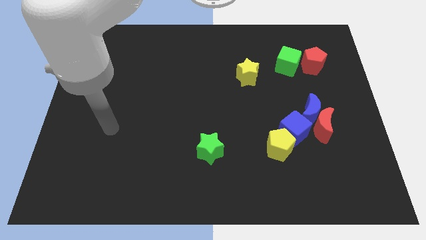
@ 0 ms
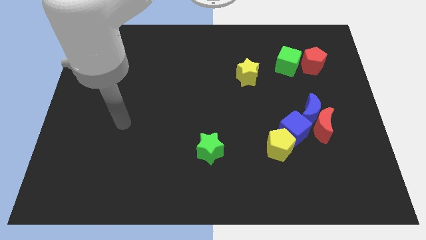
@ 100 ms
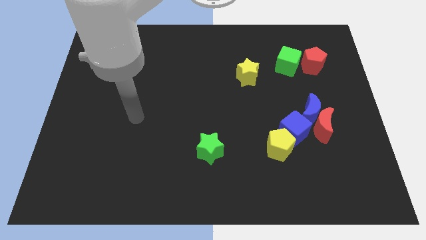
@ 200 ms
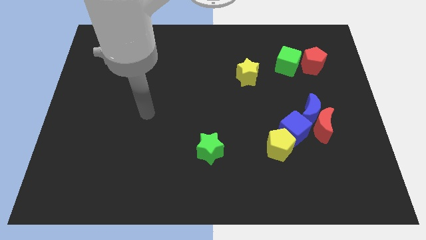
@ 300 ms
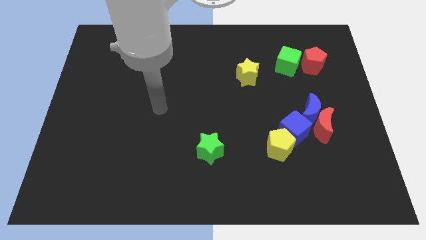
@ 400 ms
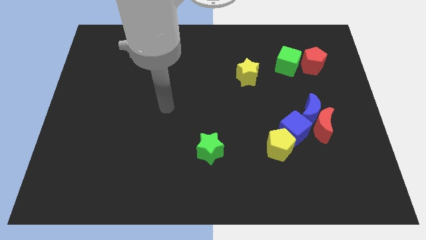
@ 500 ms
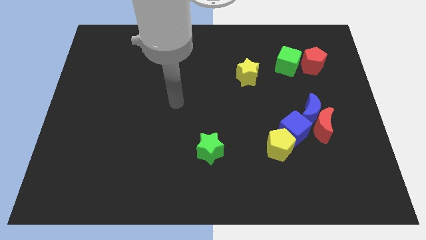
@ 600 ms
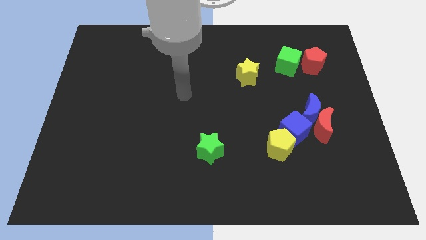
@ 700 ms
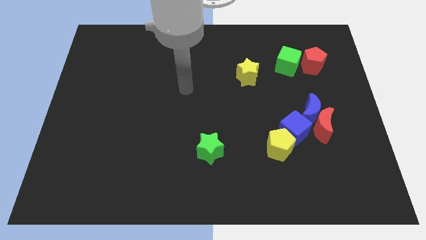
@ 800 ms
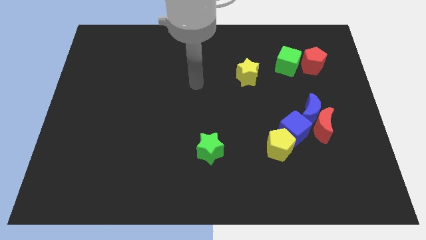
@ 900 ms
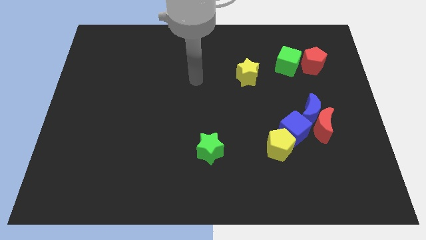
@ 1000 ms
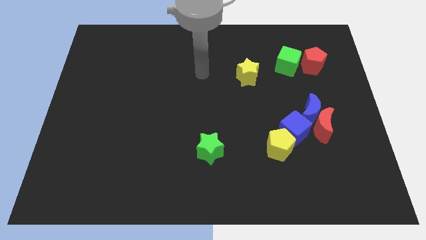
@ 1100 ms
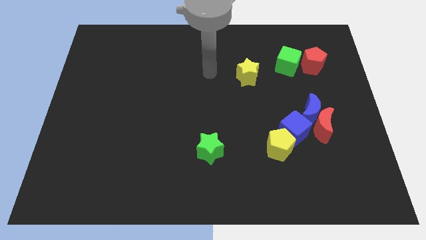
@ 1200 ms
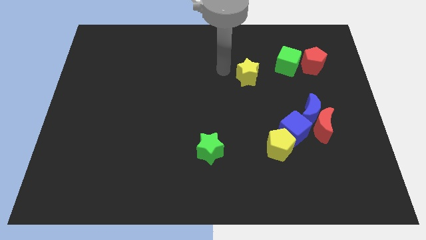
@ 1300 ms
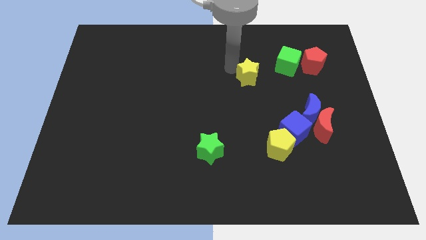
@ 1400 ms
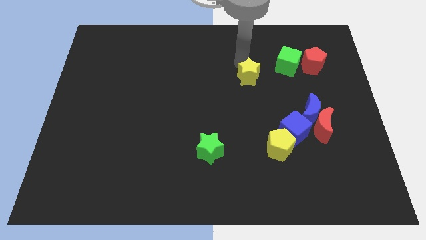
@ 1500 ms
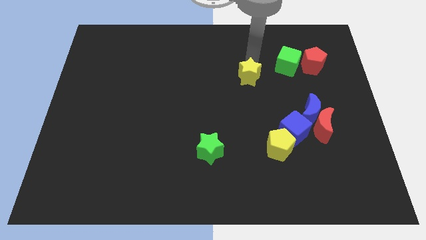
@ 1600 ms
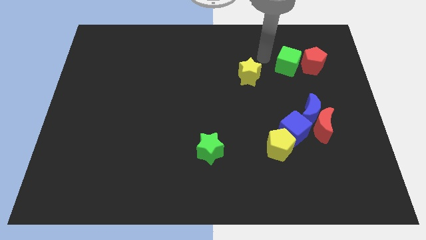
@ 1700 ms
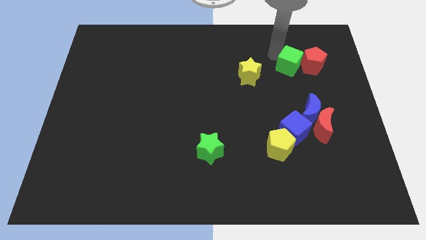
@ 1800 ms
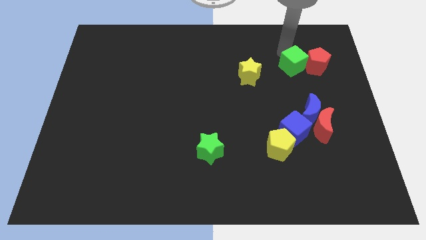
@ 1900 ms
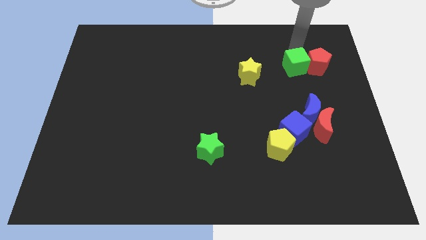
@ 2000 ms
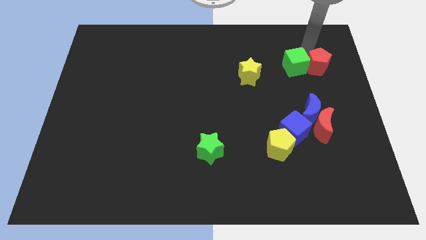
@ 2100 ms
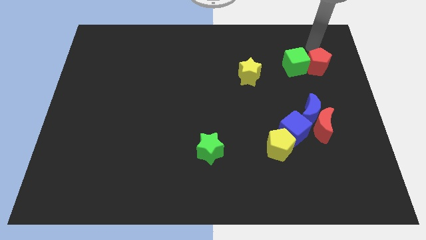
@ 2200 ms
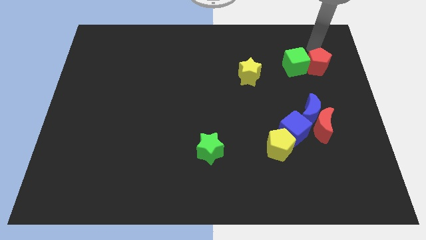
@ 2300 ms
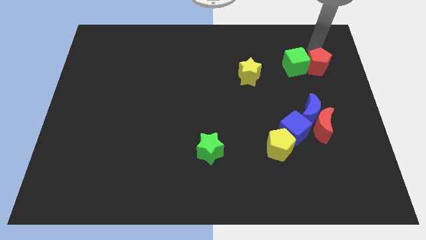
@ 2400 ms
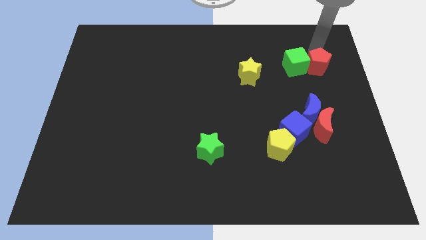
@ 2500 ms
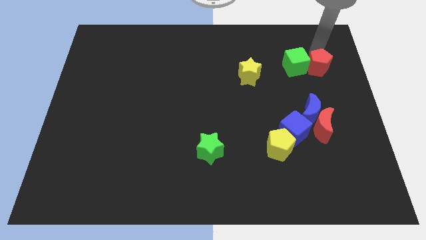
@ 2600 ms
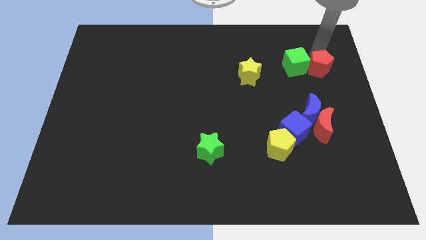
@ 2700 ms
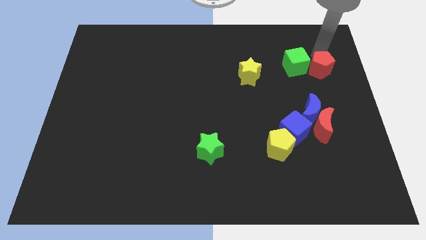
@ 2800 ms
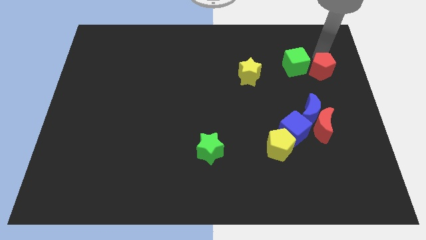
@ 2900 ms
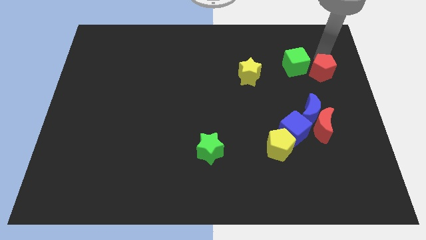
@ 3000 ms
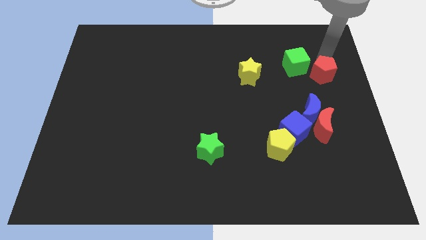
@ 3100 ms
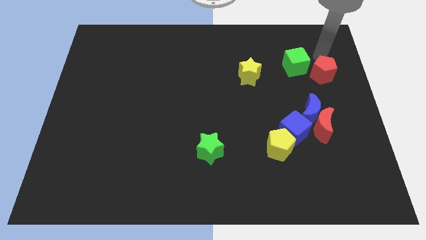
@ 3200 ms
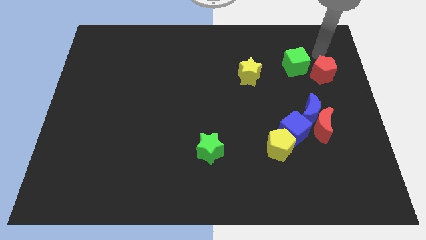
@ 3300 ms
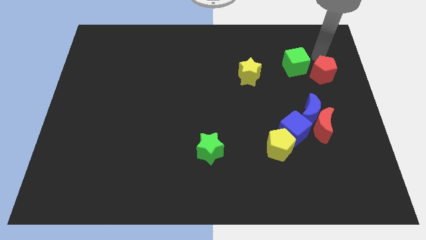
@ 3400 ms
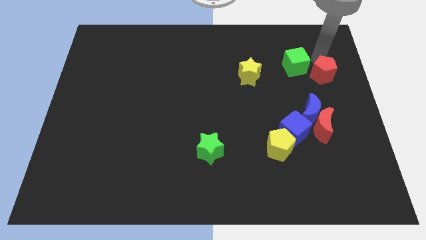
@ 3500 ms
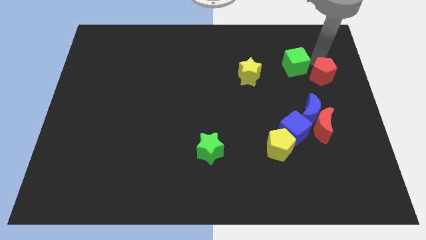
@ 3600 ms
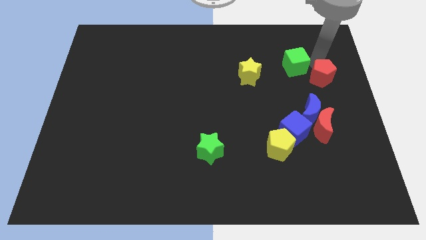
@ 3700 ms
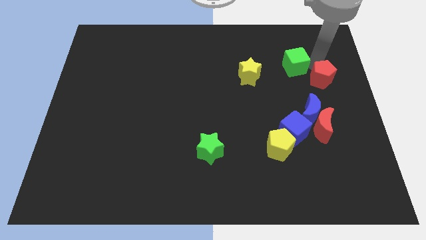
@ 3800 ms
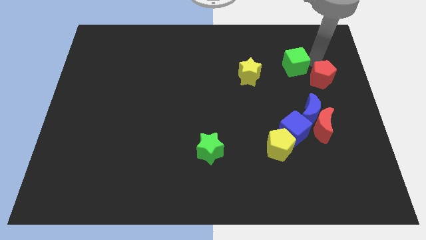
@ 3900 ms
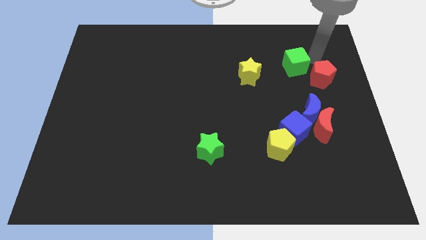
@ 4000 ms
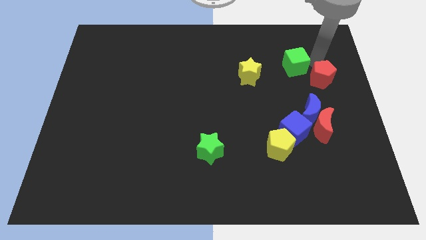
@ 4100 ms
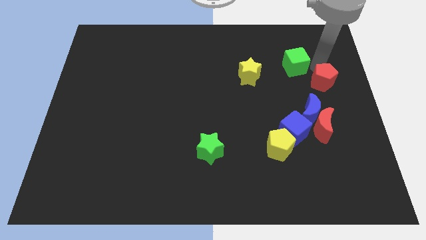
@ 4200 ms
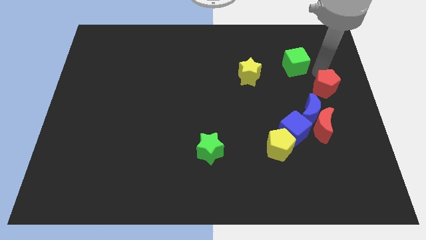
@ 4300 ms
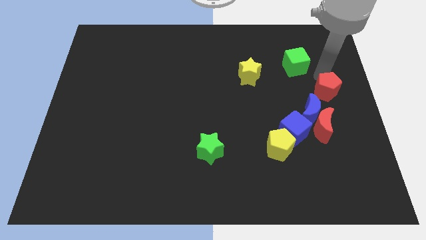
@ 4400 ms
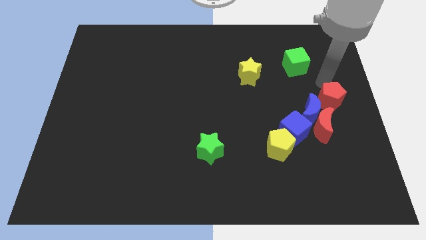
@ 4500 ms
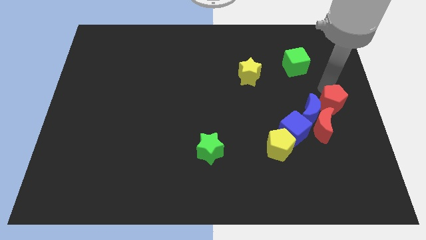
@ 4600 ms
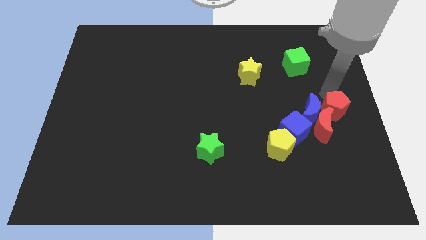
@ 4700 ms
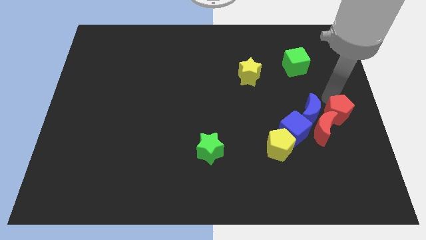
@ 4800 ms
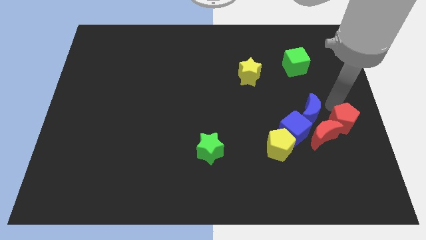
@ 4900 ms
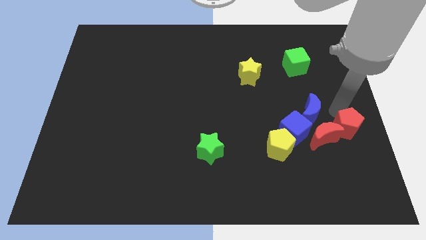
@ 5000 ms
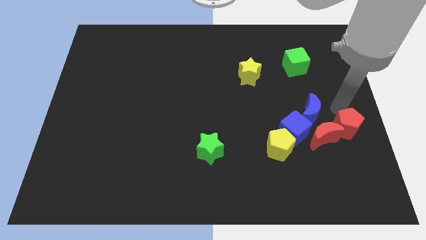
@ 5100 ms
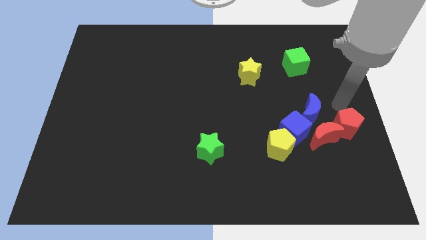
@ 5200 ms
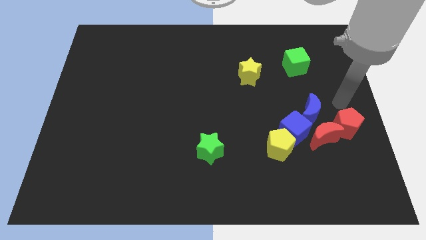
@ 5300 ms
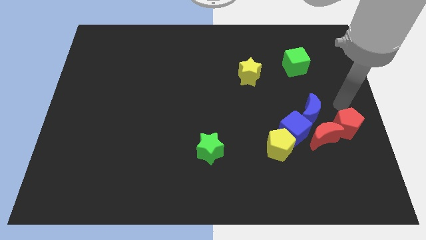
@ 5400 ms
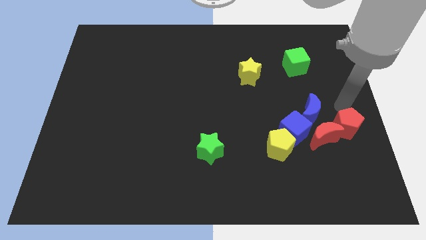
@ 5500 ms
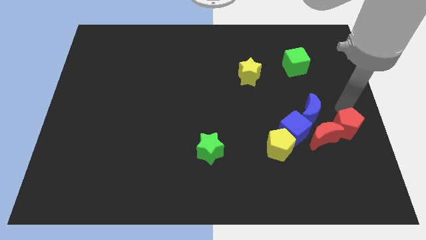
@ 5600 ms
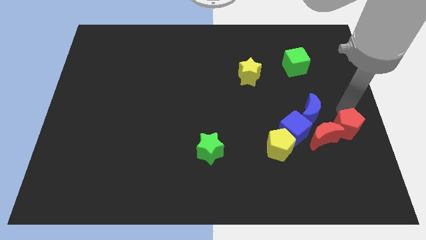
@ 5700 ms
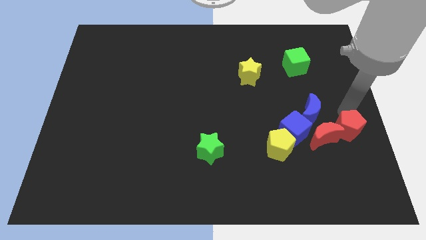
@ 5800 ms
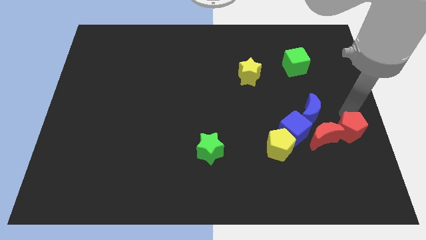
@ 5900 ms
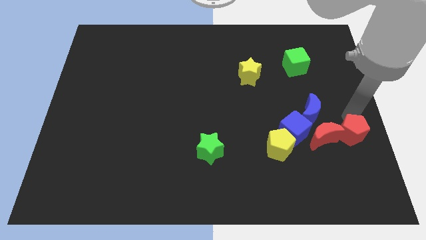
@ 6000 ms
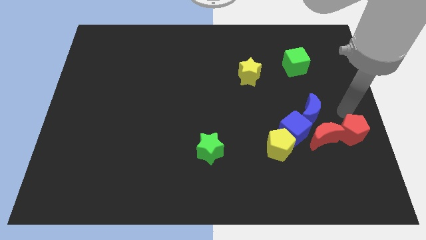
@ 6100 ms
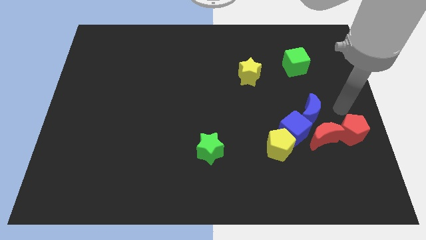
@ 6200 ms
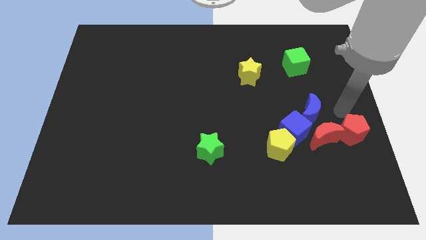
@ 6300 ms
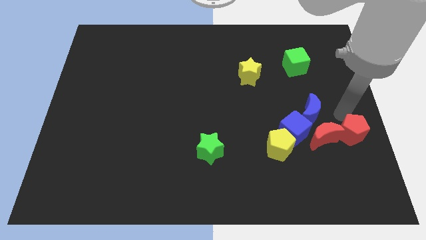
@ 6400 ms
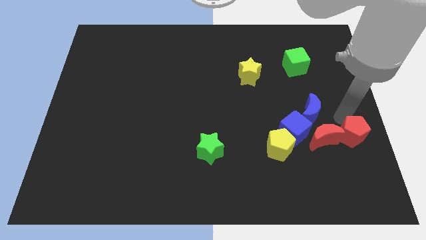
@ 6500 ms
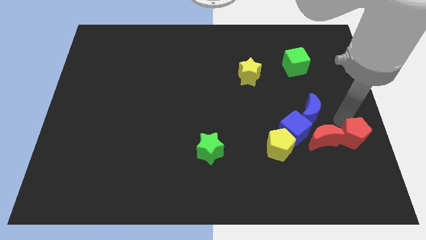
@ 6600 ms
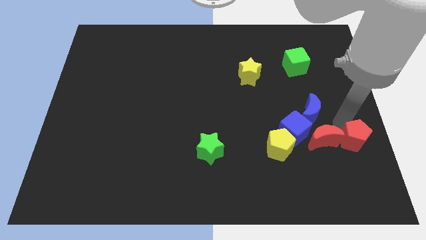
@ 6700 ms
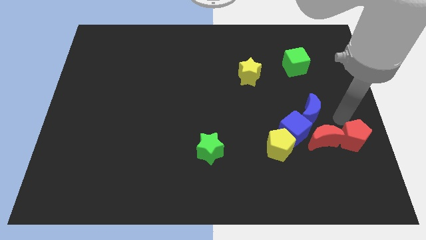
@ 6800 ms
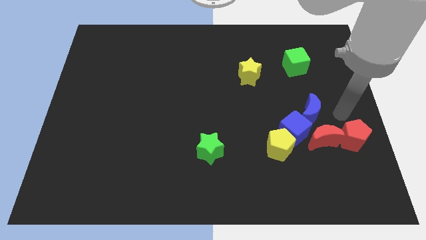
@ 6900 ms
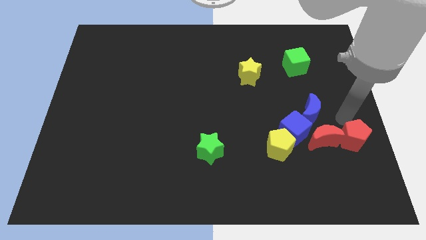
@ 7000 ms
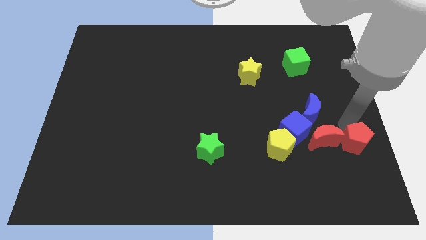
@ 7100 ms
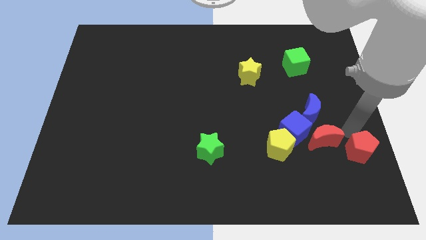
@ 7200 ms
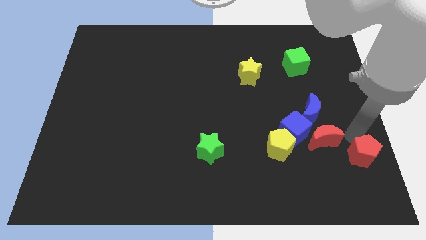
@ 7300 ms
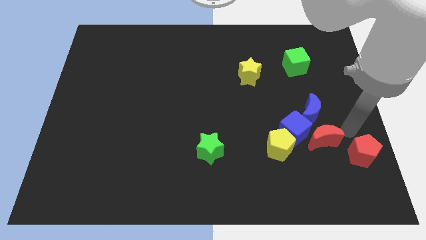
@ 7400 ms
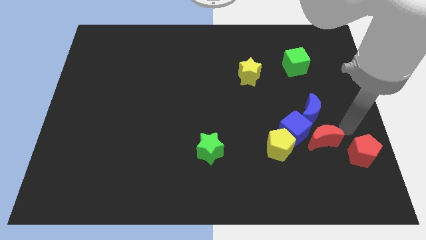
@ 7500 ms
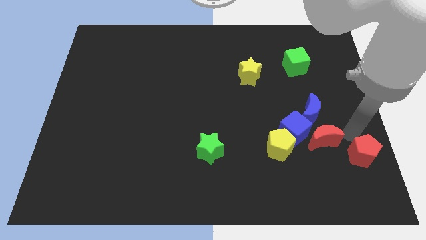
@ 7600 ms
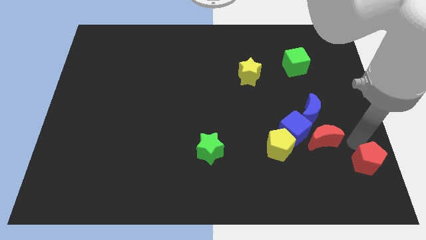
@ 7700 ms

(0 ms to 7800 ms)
slide the red pentagon to the lower right corner
